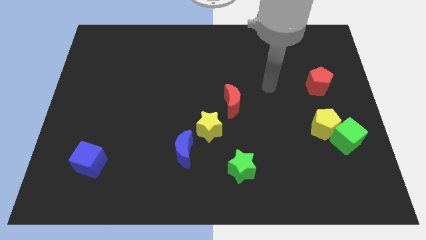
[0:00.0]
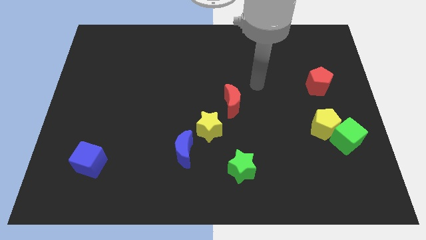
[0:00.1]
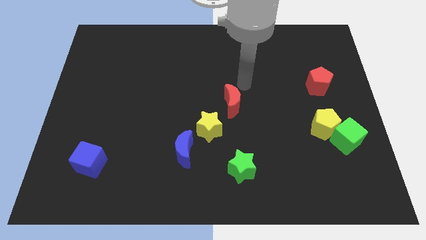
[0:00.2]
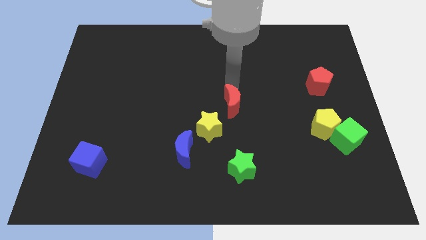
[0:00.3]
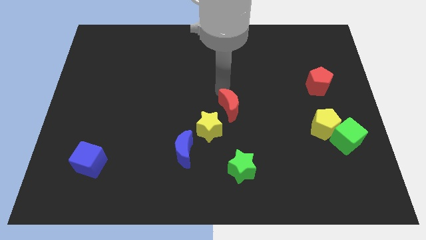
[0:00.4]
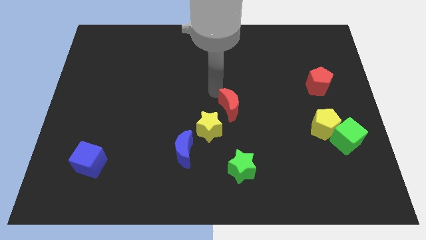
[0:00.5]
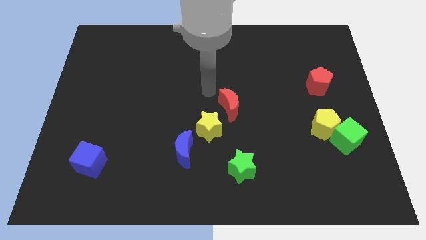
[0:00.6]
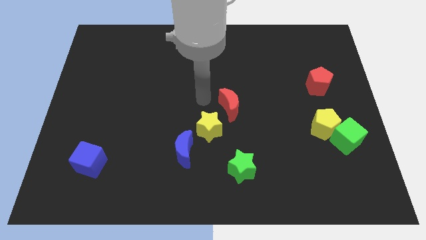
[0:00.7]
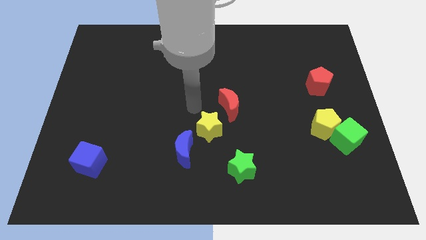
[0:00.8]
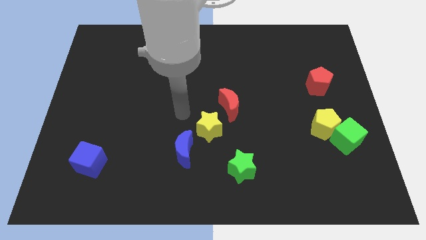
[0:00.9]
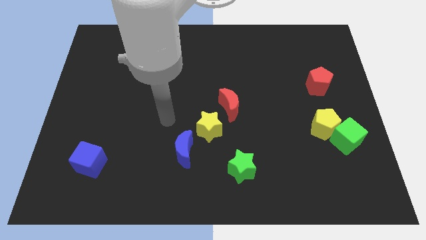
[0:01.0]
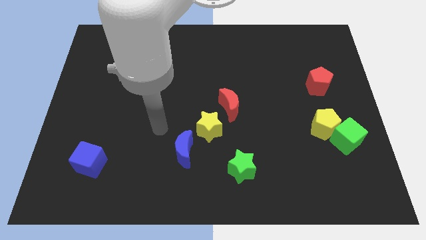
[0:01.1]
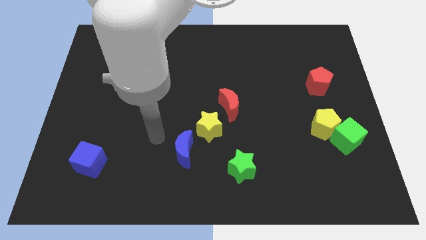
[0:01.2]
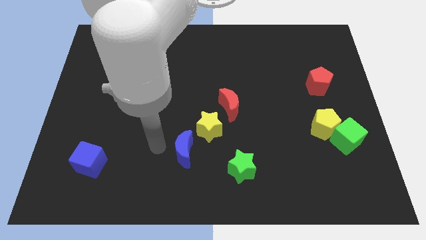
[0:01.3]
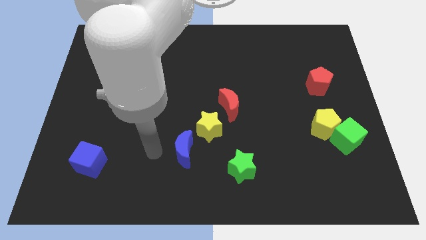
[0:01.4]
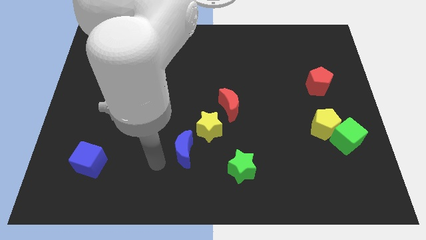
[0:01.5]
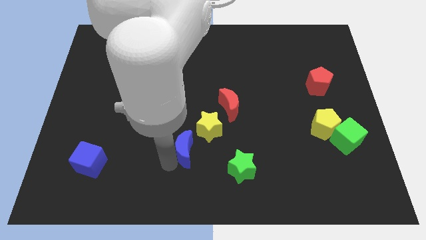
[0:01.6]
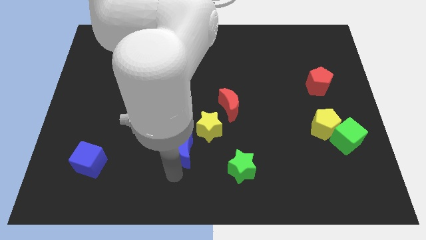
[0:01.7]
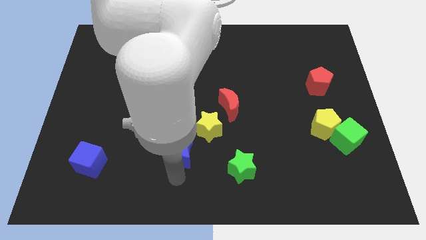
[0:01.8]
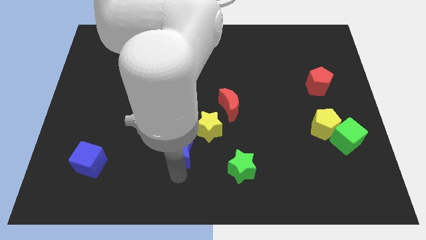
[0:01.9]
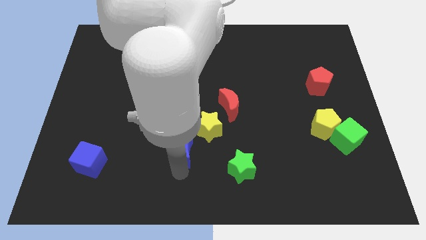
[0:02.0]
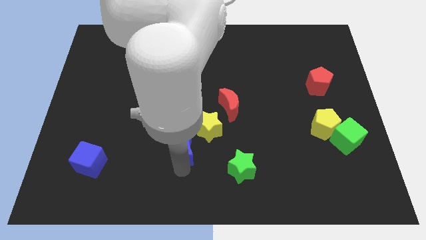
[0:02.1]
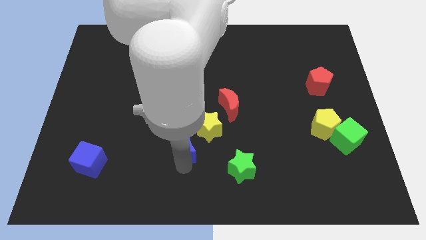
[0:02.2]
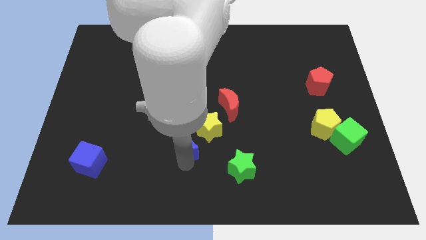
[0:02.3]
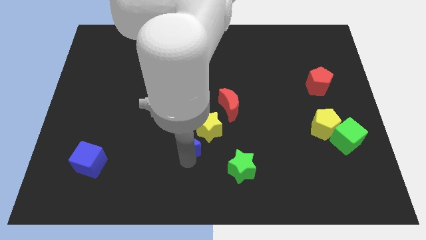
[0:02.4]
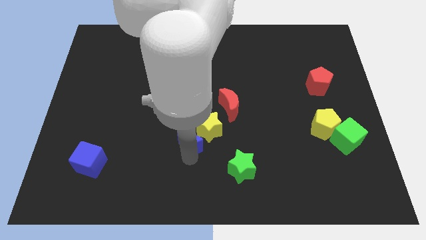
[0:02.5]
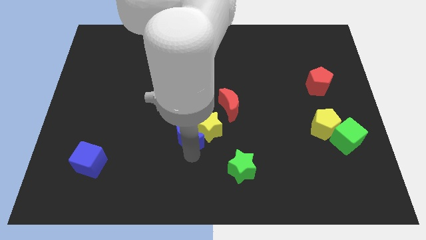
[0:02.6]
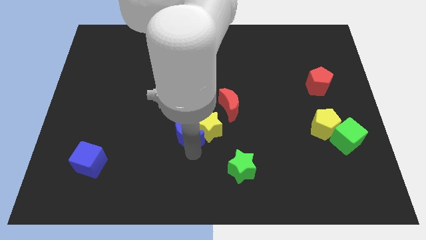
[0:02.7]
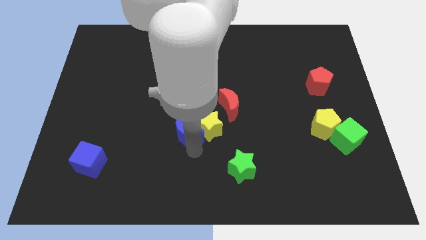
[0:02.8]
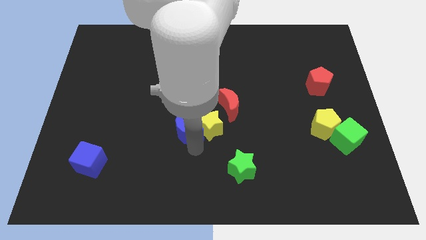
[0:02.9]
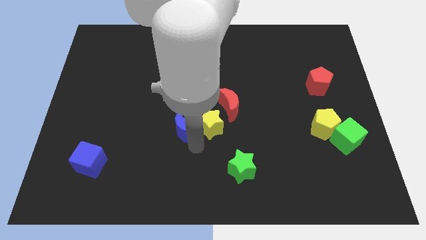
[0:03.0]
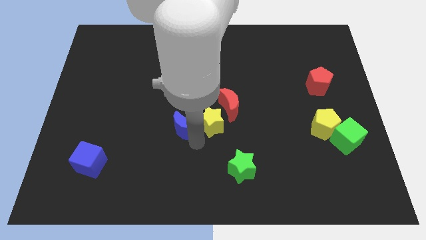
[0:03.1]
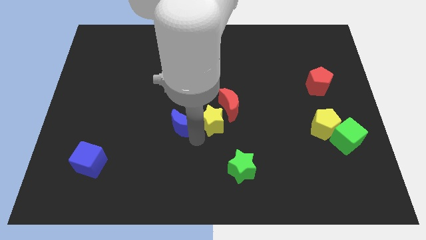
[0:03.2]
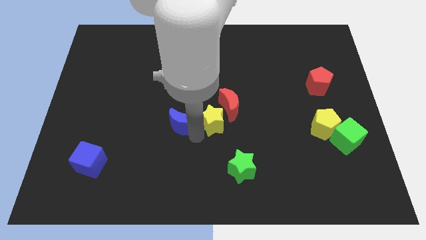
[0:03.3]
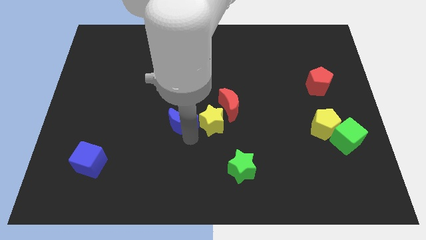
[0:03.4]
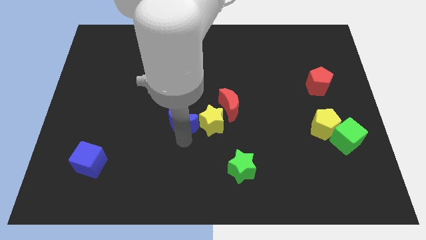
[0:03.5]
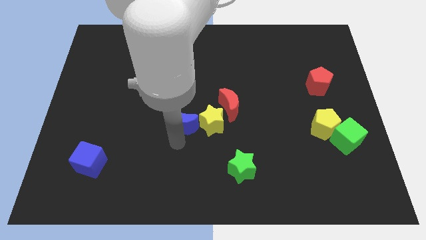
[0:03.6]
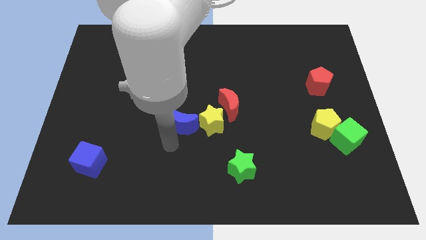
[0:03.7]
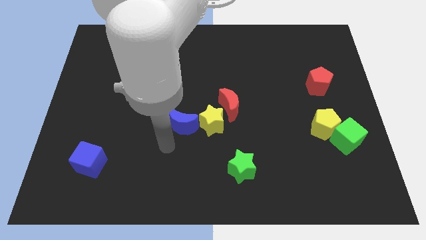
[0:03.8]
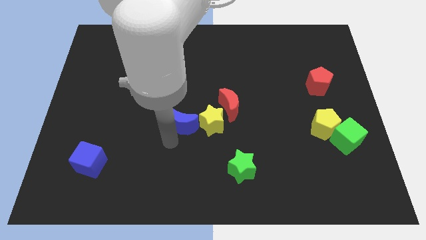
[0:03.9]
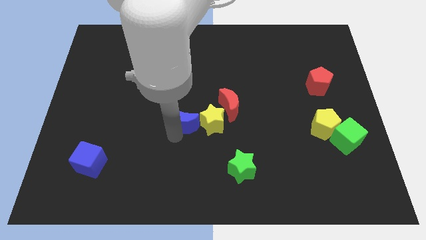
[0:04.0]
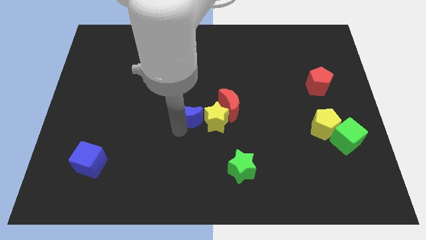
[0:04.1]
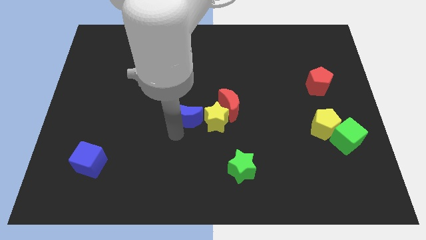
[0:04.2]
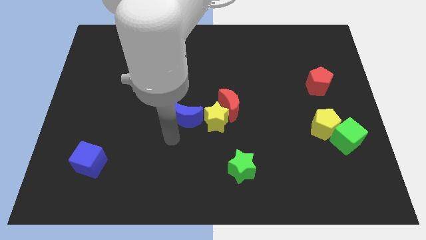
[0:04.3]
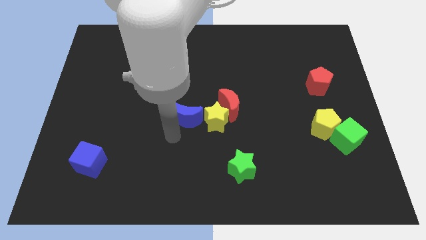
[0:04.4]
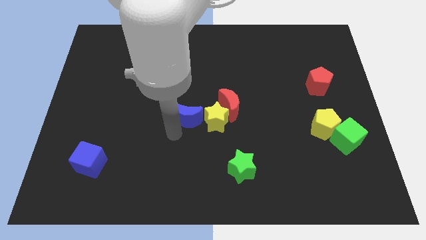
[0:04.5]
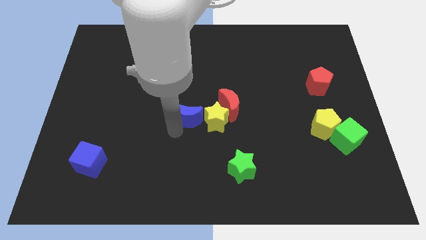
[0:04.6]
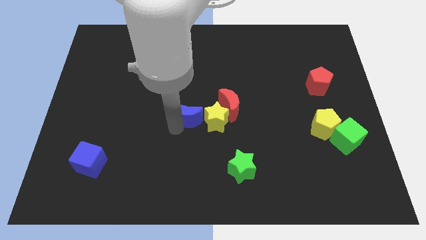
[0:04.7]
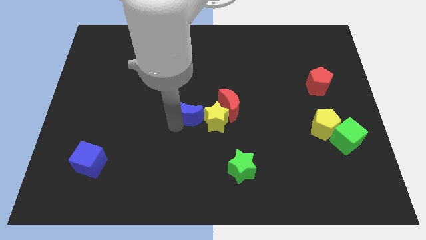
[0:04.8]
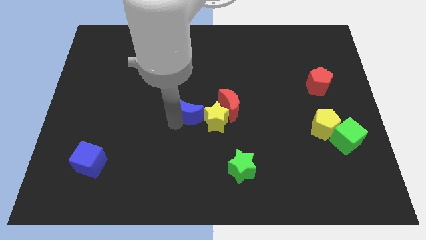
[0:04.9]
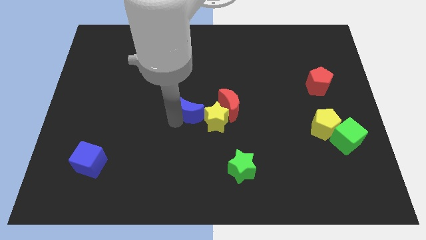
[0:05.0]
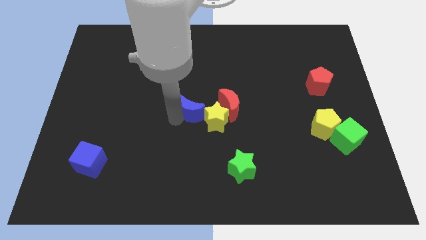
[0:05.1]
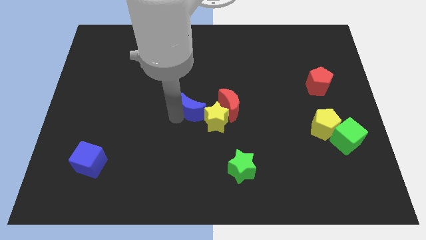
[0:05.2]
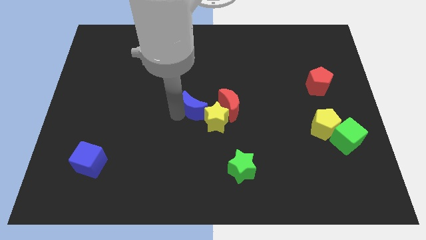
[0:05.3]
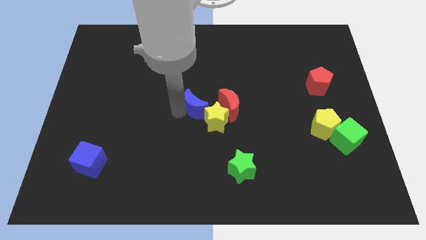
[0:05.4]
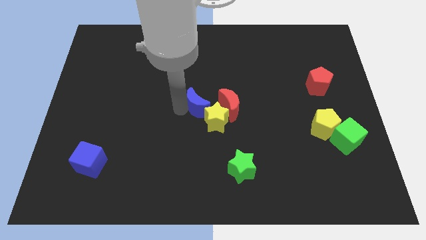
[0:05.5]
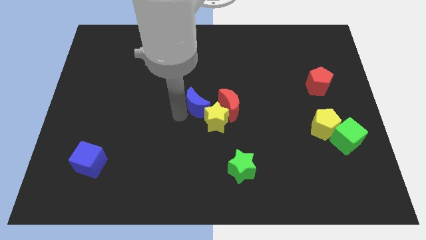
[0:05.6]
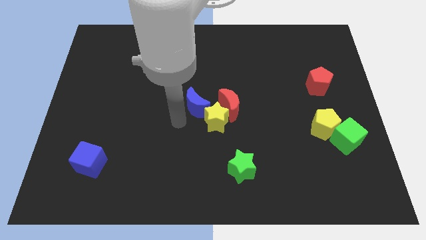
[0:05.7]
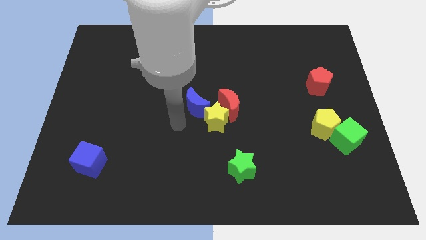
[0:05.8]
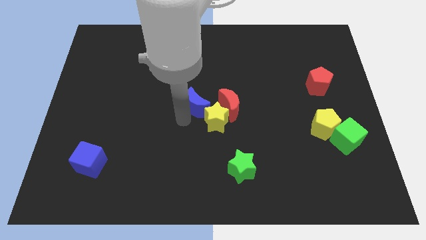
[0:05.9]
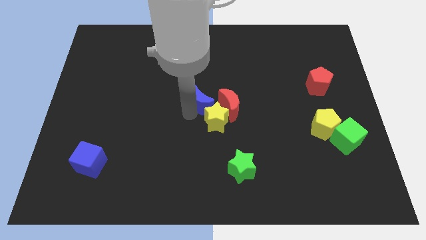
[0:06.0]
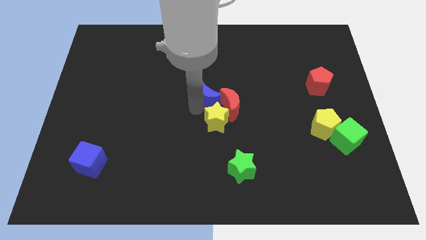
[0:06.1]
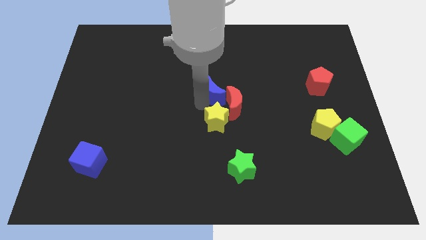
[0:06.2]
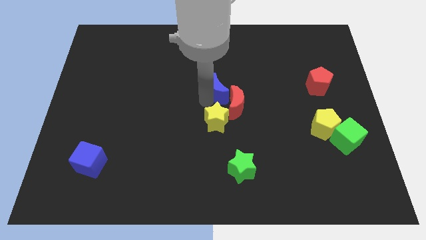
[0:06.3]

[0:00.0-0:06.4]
slide the blue moon to the top of the red moon

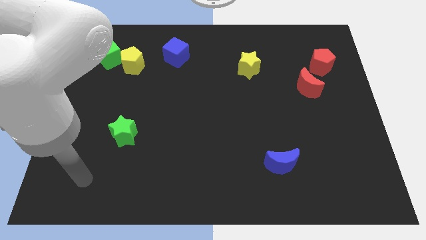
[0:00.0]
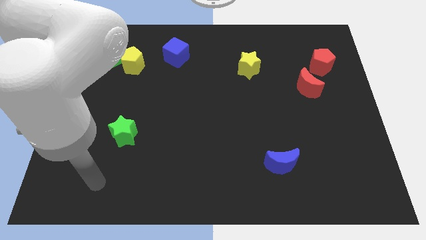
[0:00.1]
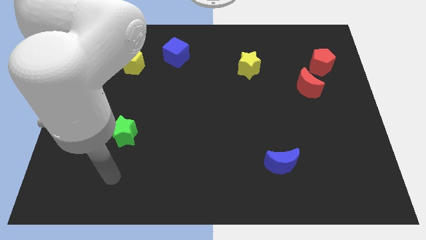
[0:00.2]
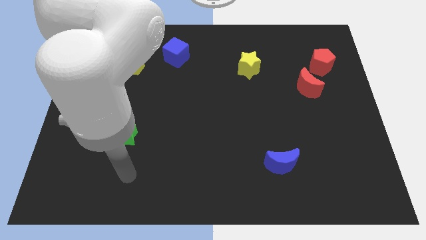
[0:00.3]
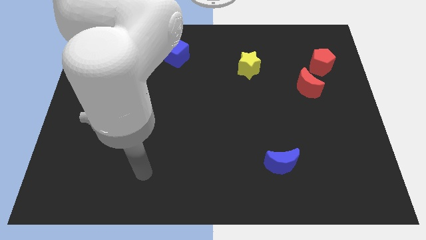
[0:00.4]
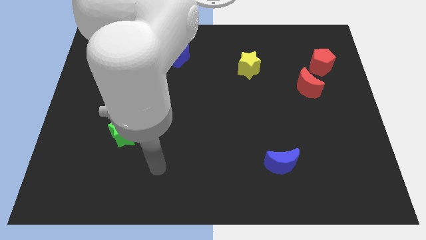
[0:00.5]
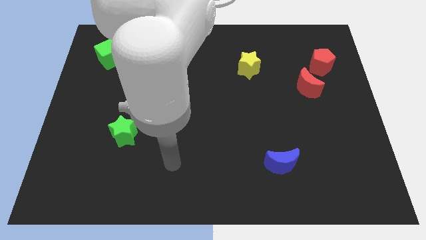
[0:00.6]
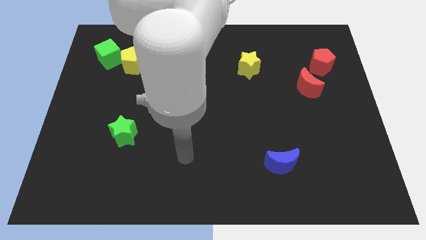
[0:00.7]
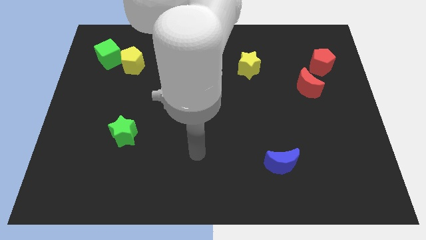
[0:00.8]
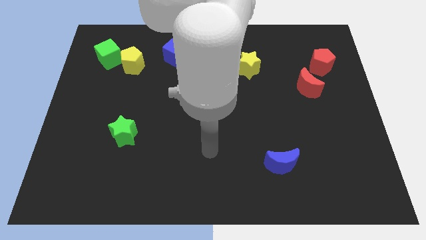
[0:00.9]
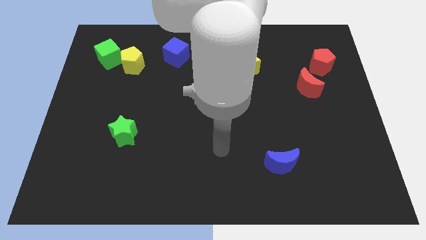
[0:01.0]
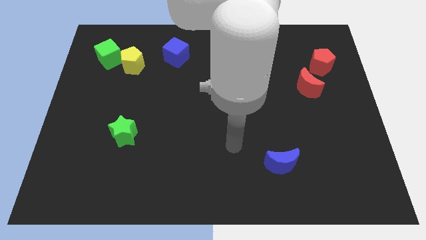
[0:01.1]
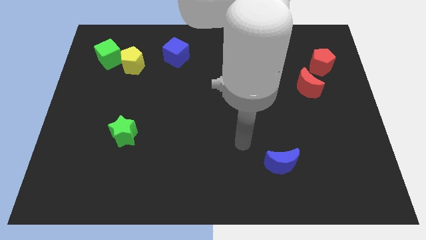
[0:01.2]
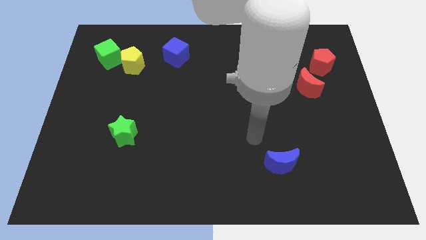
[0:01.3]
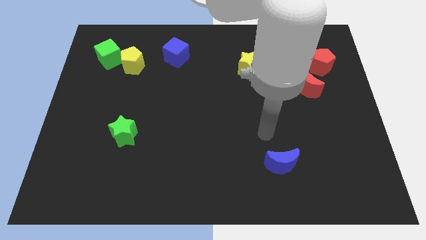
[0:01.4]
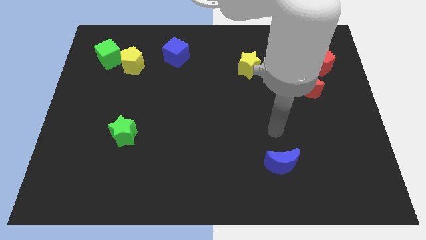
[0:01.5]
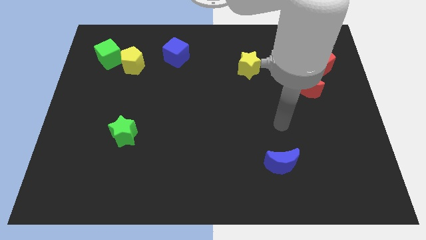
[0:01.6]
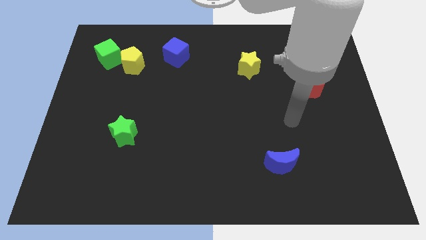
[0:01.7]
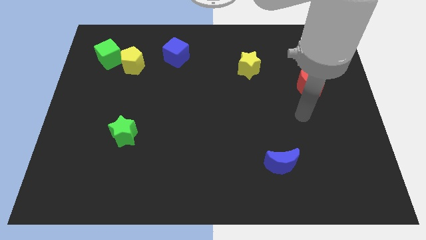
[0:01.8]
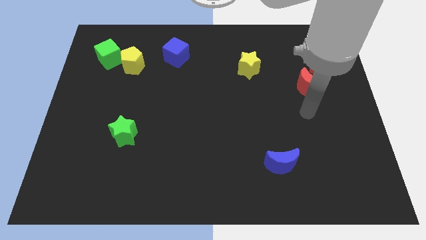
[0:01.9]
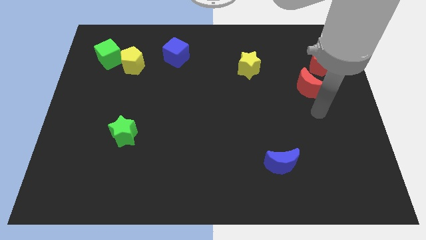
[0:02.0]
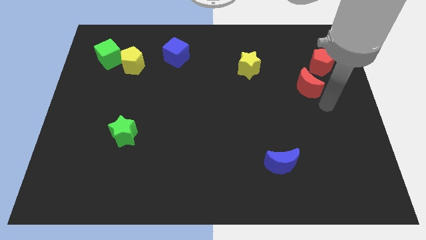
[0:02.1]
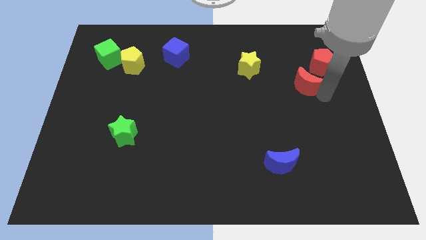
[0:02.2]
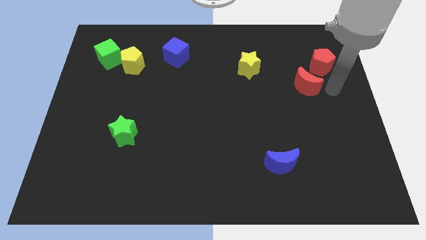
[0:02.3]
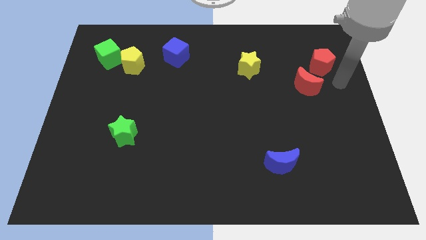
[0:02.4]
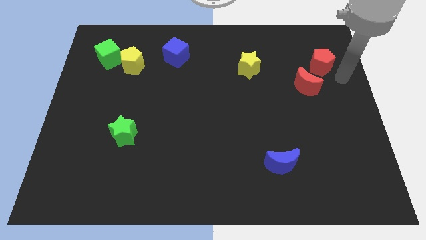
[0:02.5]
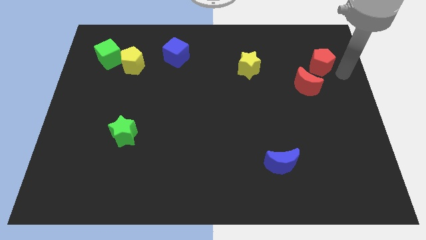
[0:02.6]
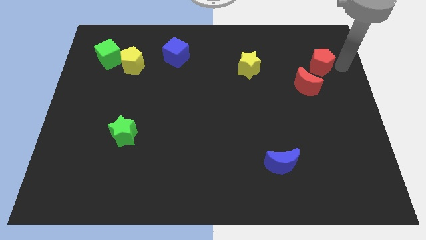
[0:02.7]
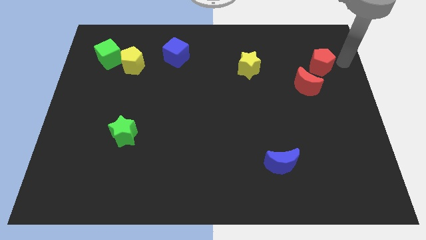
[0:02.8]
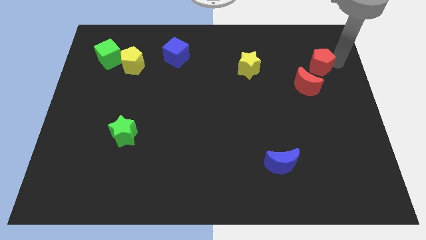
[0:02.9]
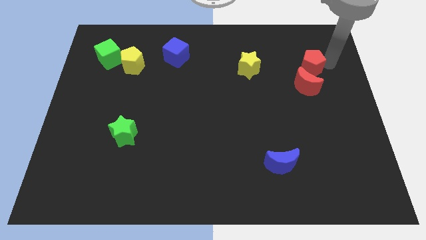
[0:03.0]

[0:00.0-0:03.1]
move the red pentagon right of the yellow star
